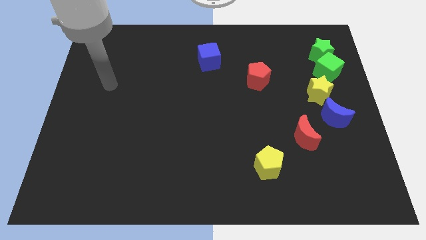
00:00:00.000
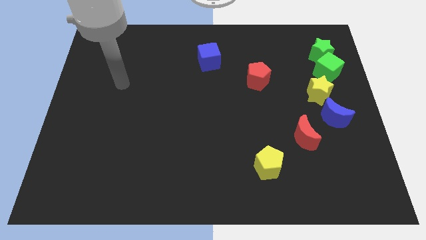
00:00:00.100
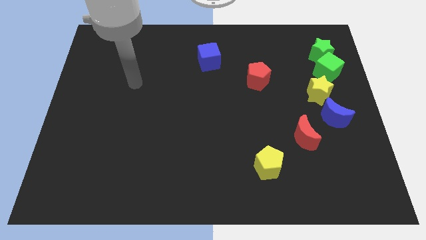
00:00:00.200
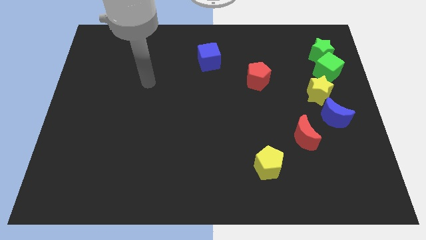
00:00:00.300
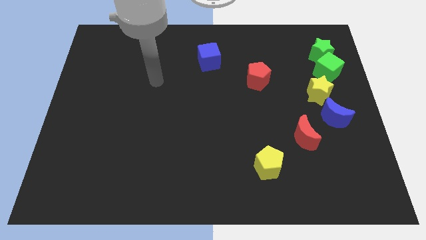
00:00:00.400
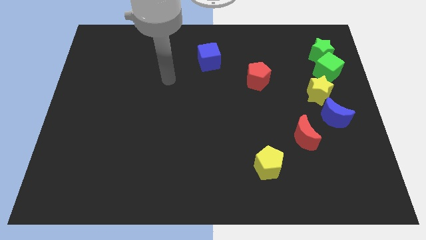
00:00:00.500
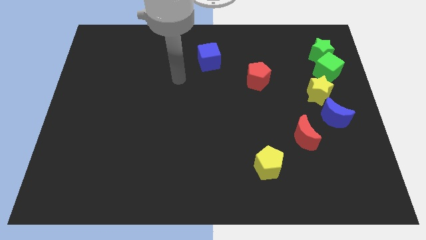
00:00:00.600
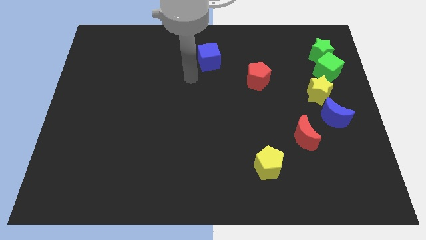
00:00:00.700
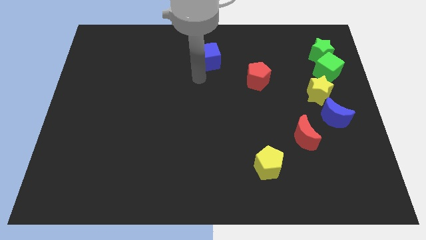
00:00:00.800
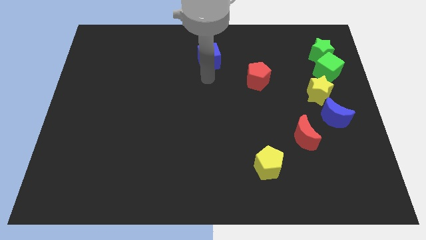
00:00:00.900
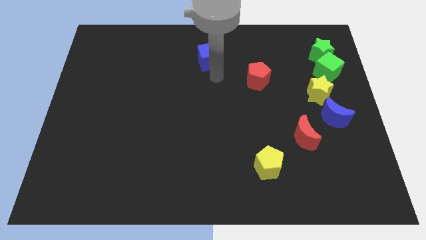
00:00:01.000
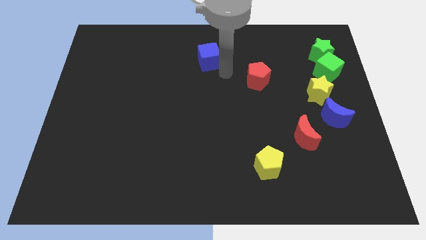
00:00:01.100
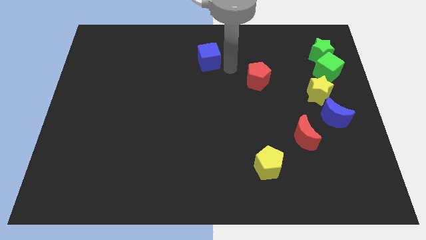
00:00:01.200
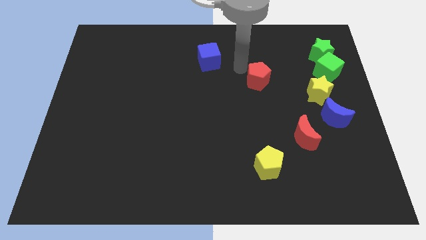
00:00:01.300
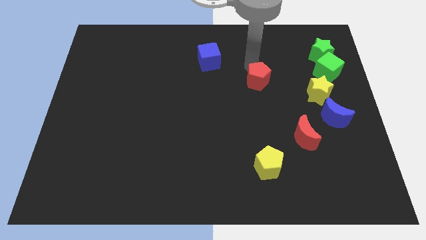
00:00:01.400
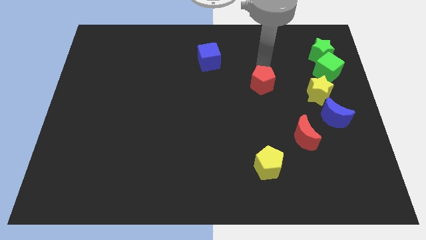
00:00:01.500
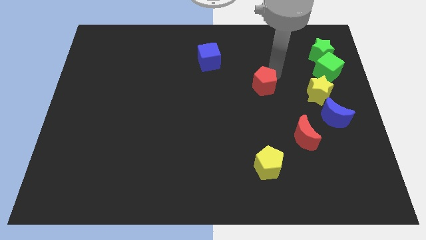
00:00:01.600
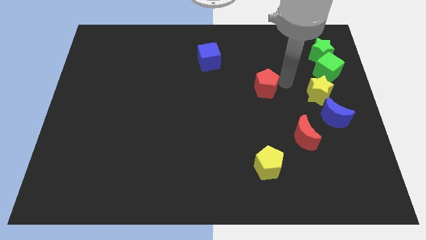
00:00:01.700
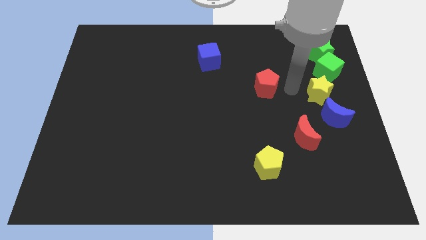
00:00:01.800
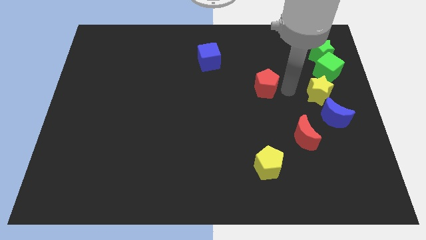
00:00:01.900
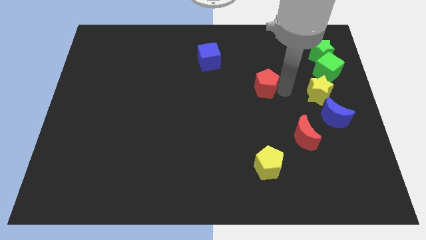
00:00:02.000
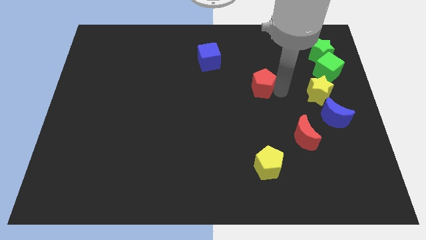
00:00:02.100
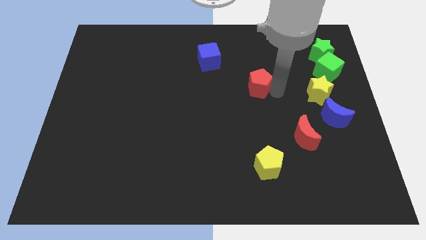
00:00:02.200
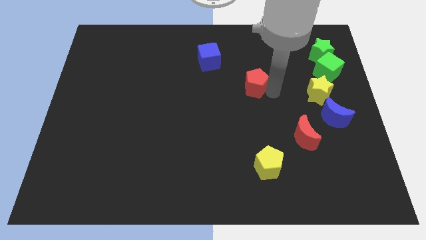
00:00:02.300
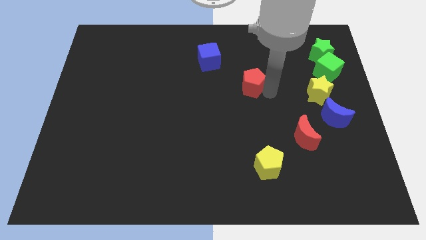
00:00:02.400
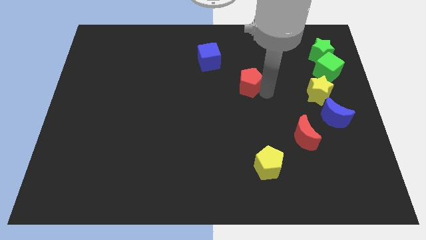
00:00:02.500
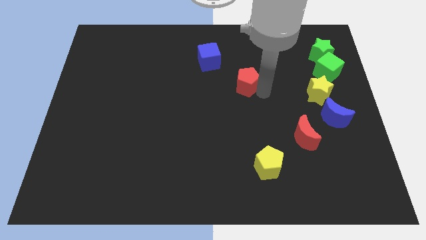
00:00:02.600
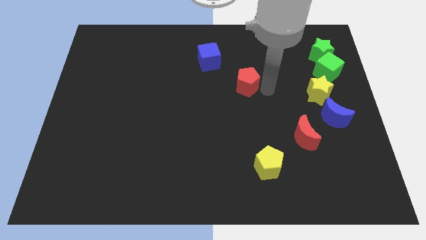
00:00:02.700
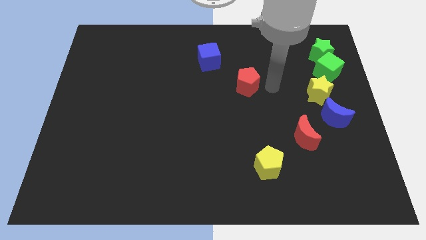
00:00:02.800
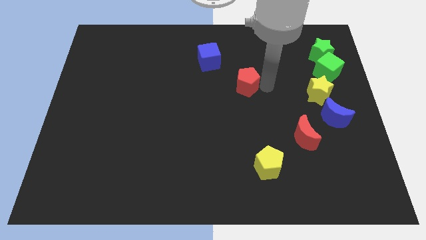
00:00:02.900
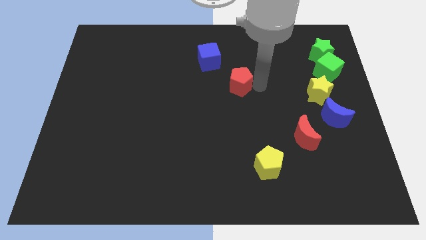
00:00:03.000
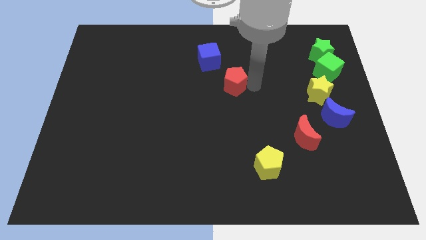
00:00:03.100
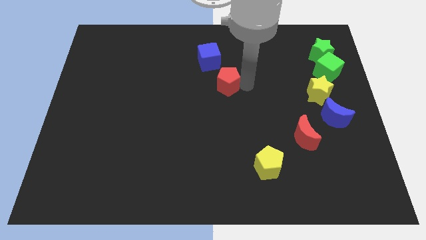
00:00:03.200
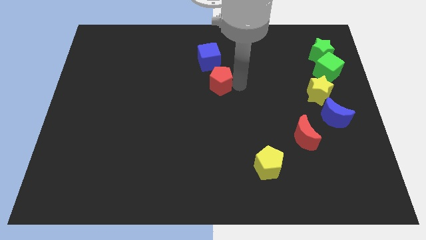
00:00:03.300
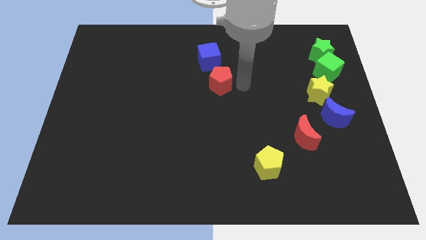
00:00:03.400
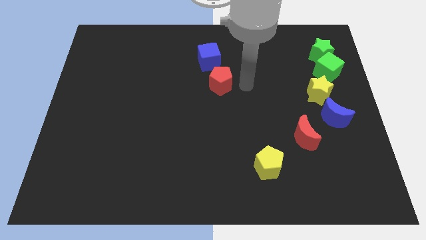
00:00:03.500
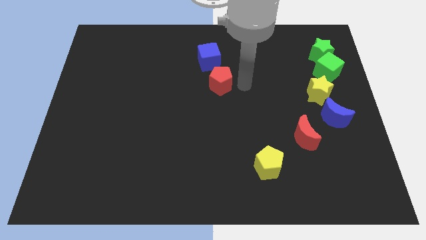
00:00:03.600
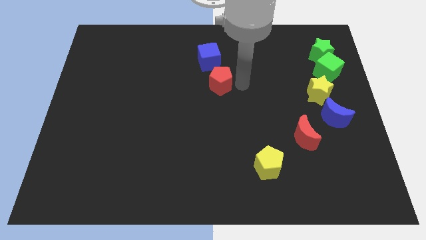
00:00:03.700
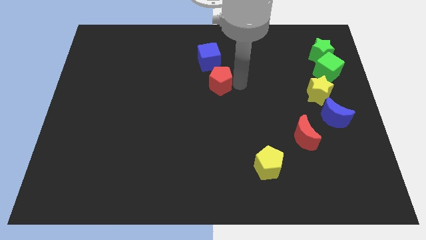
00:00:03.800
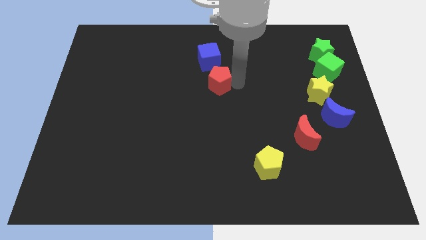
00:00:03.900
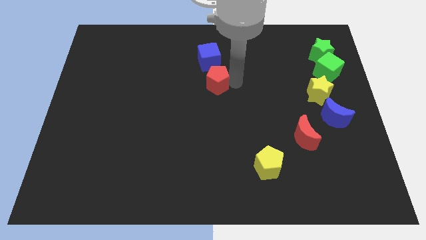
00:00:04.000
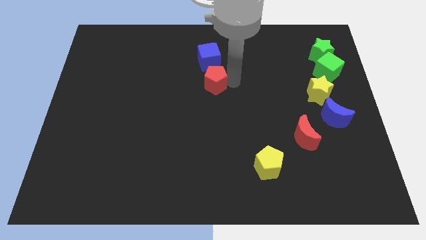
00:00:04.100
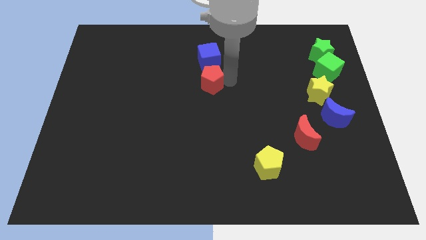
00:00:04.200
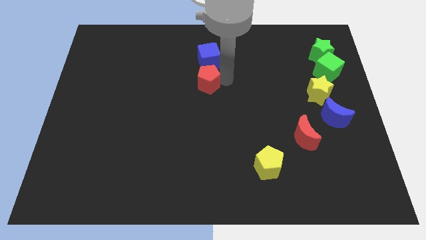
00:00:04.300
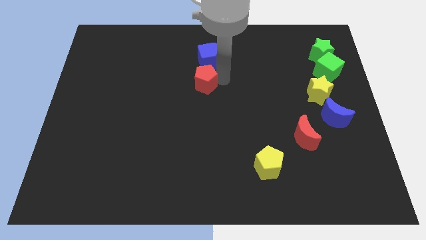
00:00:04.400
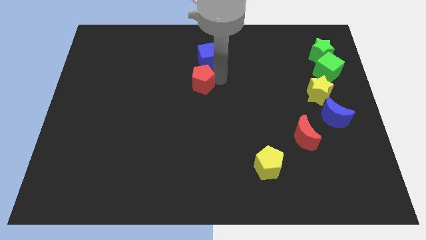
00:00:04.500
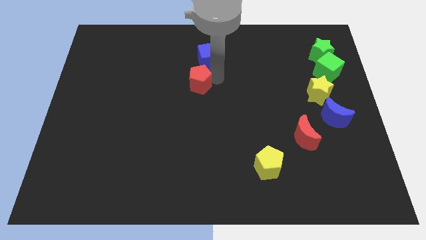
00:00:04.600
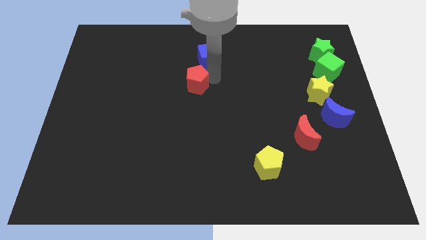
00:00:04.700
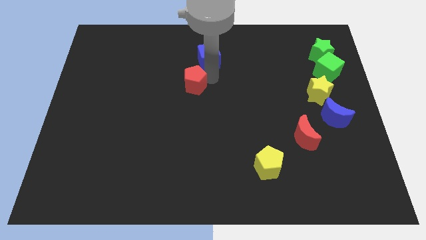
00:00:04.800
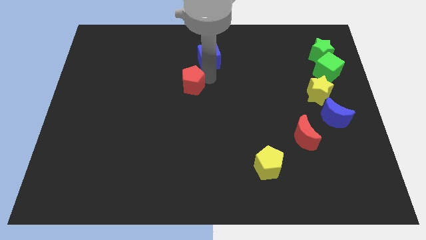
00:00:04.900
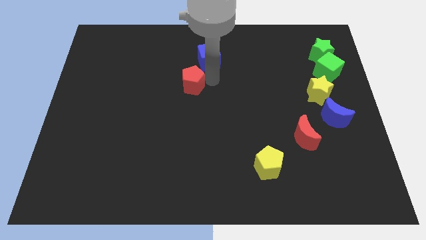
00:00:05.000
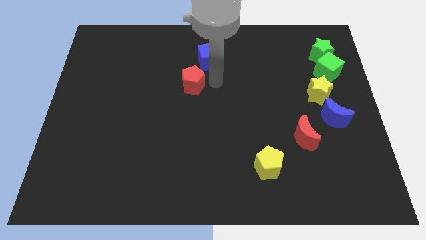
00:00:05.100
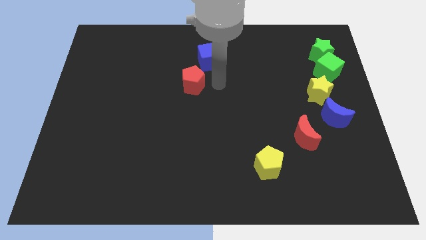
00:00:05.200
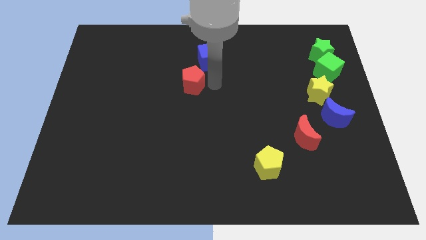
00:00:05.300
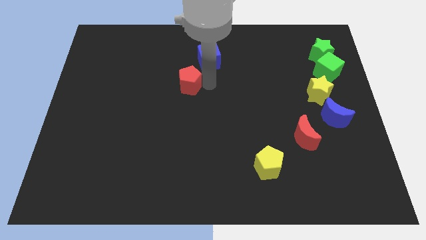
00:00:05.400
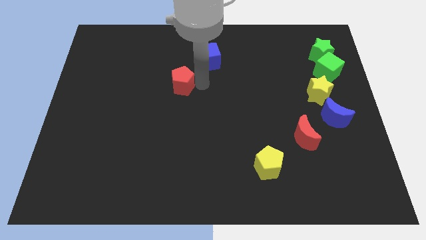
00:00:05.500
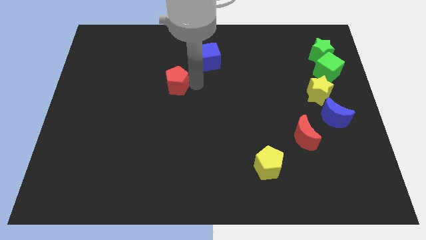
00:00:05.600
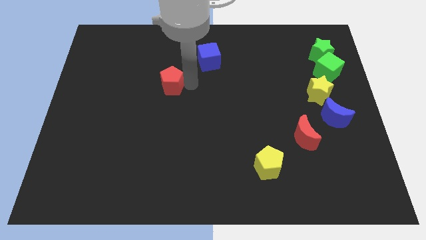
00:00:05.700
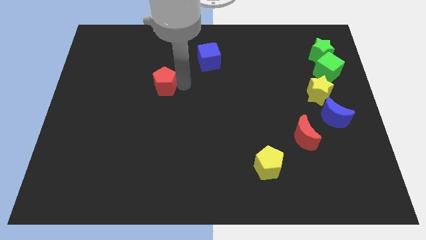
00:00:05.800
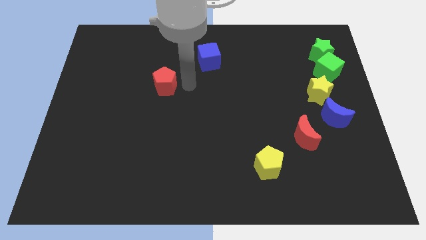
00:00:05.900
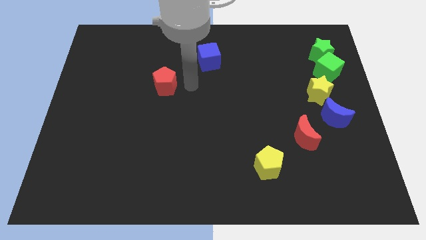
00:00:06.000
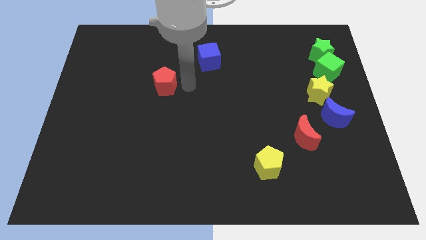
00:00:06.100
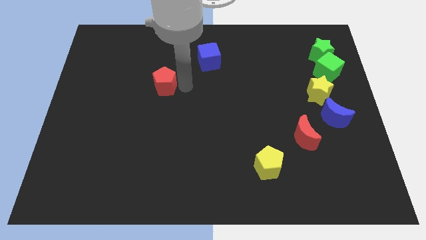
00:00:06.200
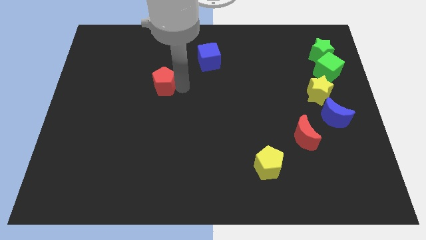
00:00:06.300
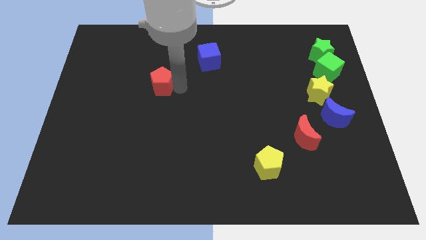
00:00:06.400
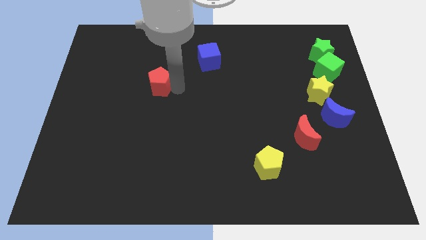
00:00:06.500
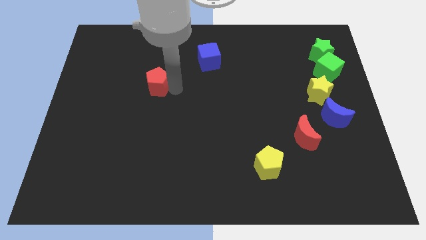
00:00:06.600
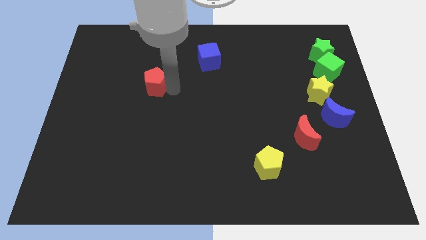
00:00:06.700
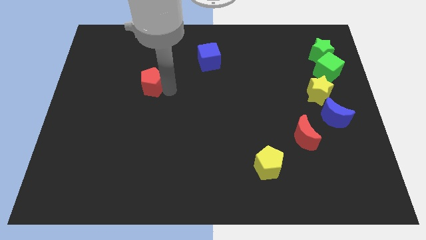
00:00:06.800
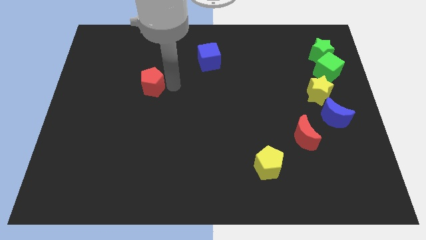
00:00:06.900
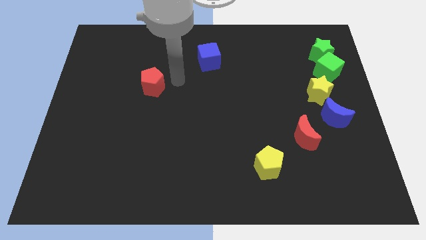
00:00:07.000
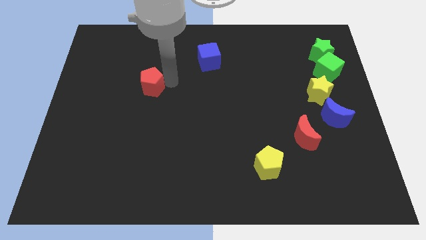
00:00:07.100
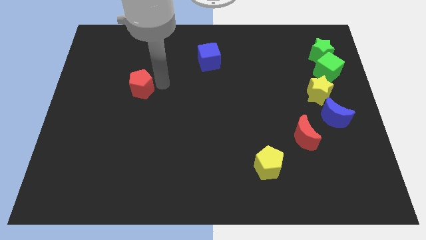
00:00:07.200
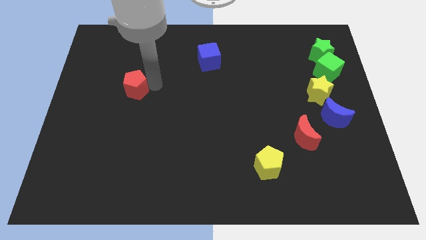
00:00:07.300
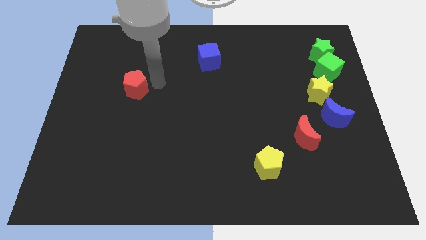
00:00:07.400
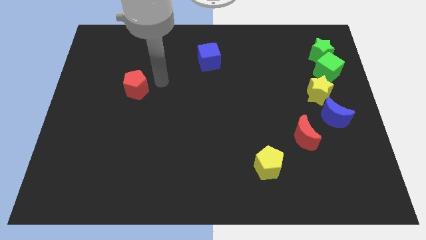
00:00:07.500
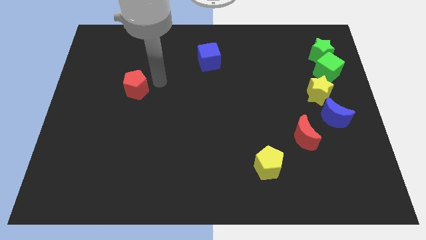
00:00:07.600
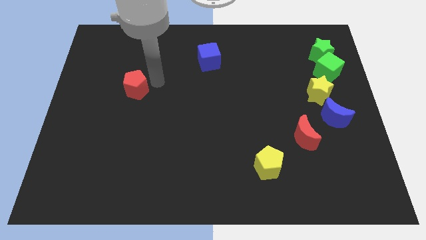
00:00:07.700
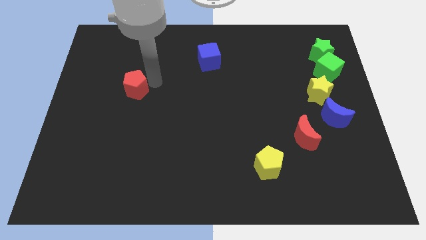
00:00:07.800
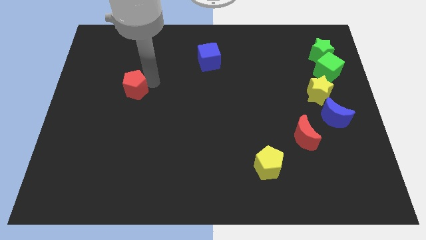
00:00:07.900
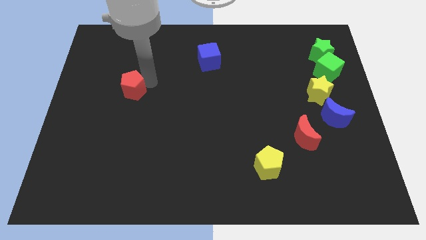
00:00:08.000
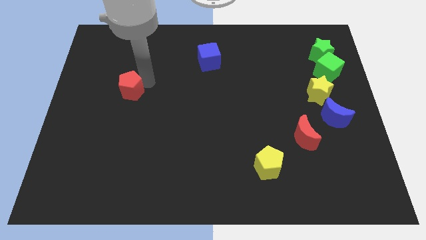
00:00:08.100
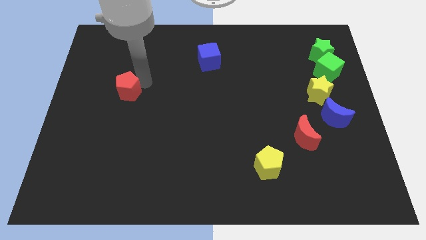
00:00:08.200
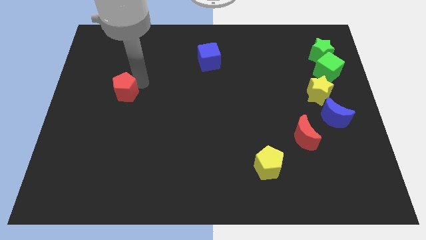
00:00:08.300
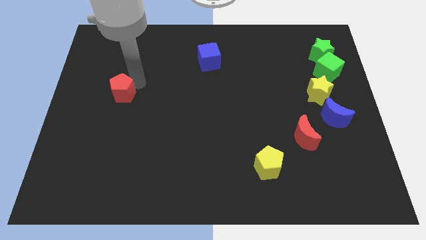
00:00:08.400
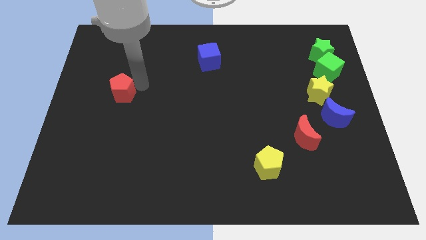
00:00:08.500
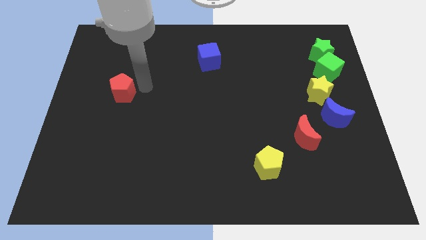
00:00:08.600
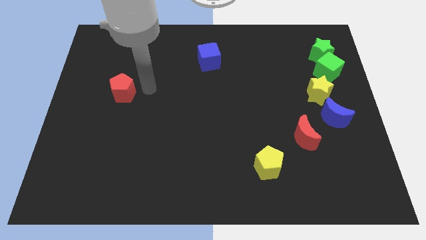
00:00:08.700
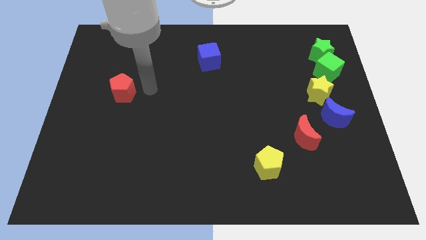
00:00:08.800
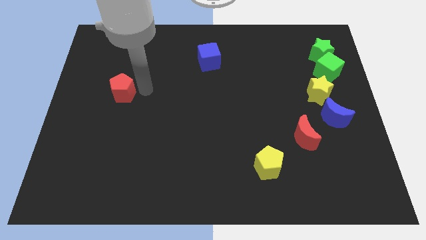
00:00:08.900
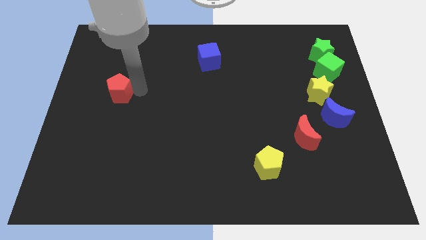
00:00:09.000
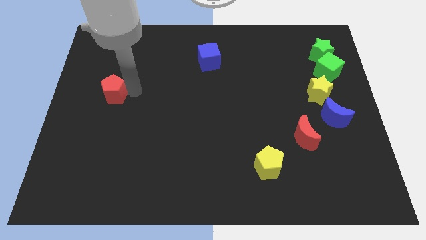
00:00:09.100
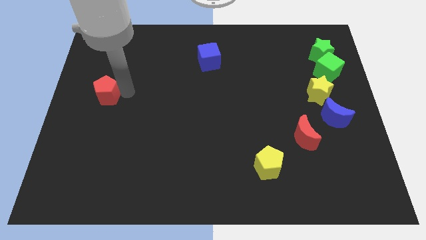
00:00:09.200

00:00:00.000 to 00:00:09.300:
push the red pentagon to the left side of the board
